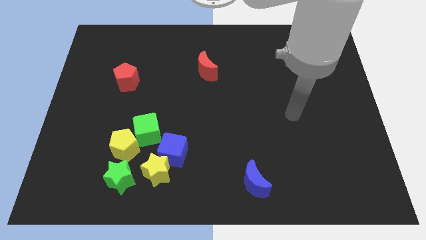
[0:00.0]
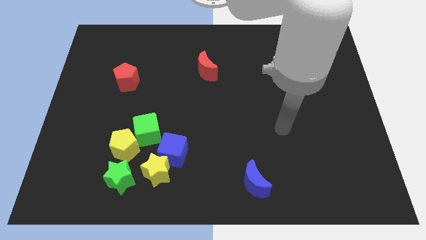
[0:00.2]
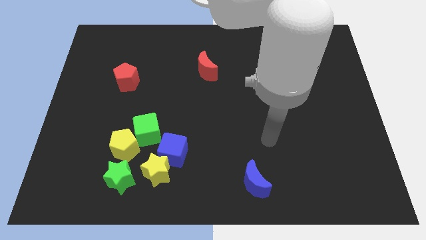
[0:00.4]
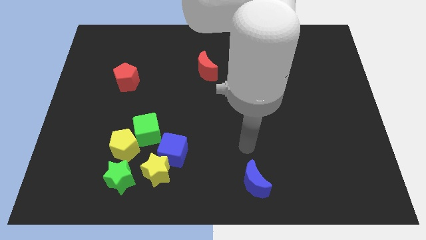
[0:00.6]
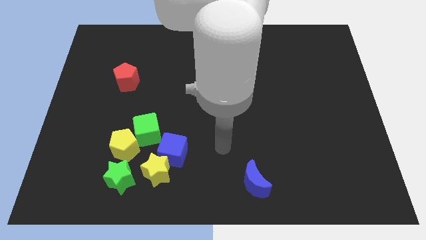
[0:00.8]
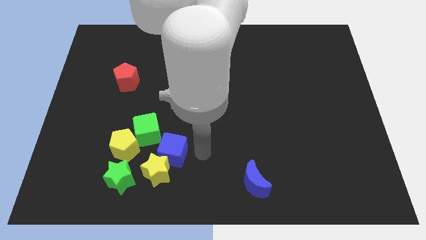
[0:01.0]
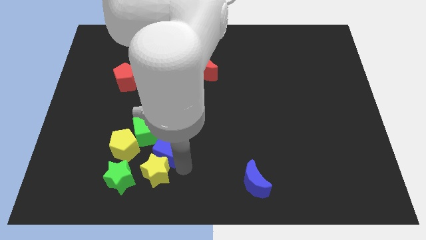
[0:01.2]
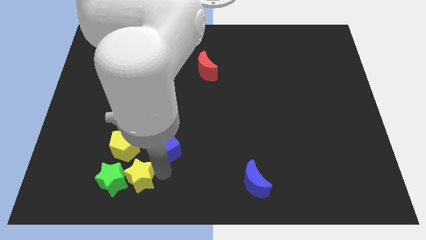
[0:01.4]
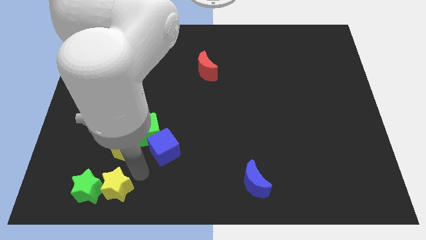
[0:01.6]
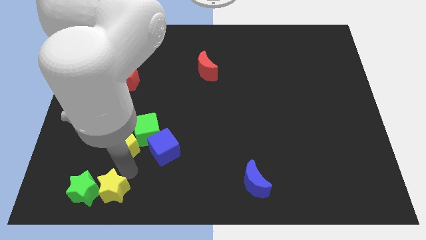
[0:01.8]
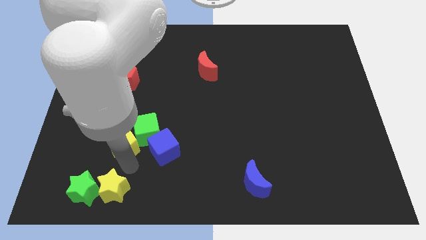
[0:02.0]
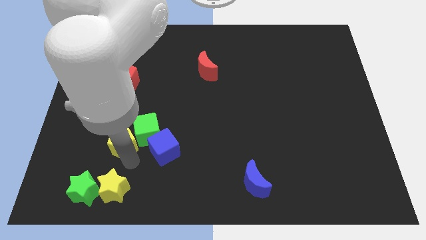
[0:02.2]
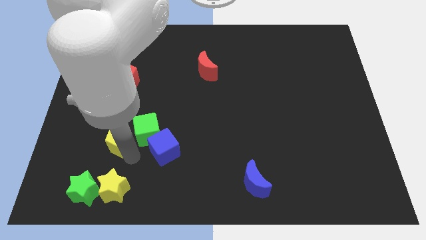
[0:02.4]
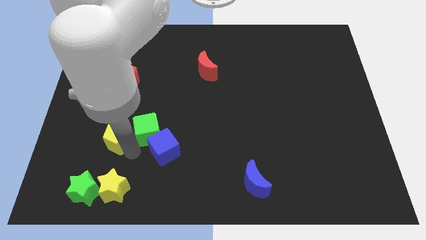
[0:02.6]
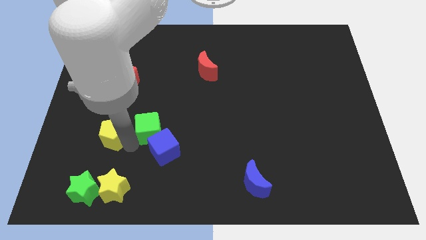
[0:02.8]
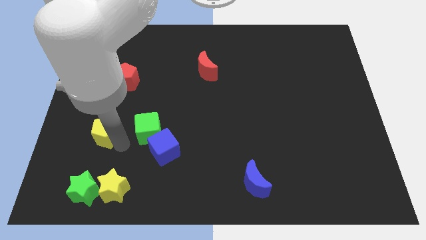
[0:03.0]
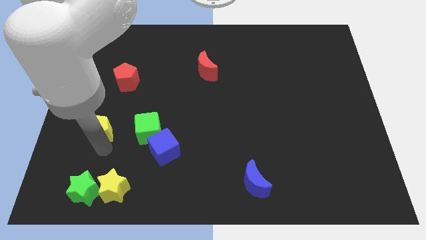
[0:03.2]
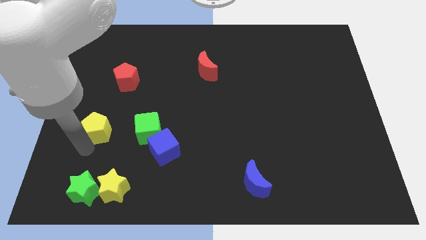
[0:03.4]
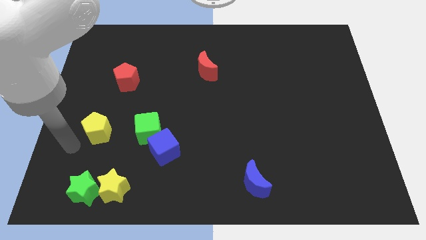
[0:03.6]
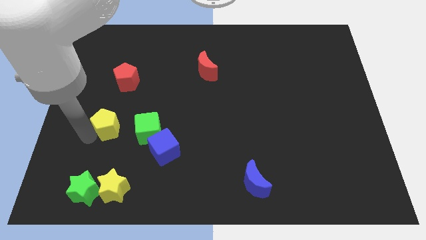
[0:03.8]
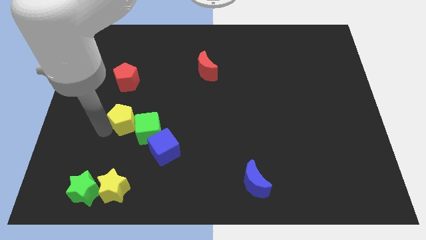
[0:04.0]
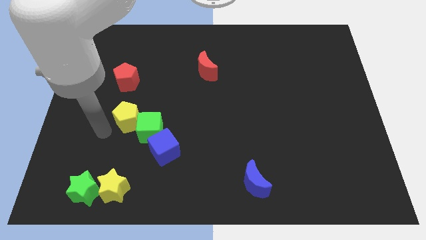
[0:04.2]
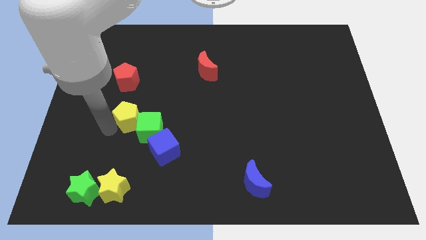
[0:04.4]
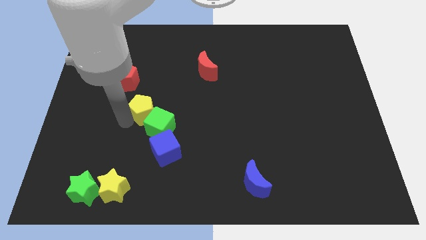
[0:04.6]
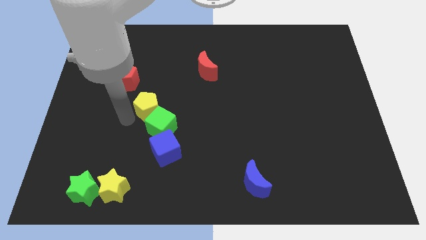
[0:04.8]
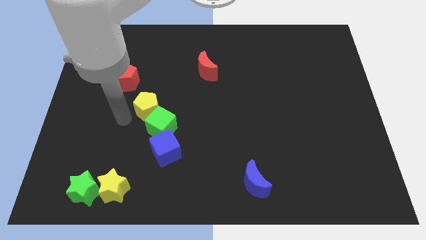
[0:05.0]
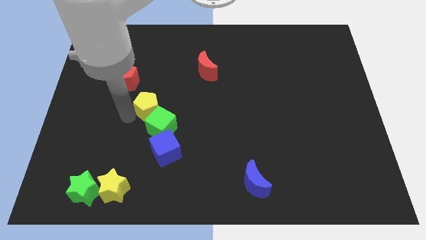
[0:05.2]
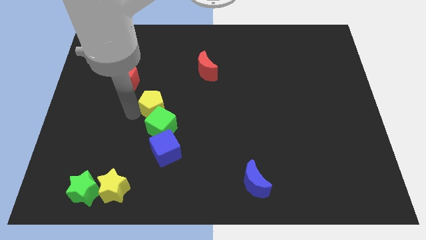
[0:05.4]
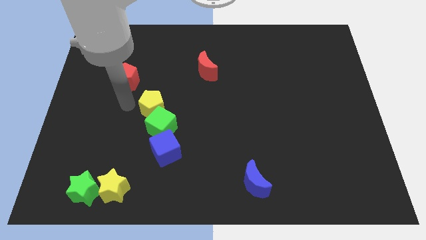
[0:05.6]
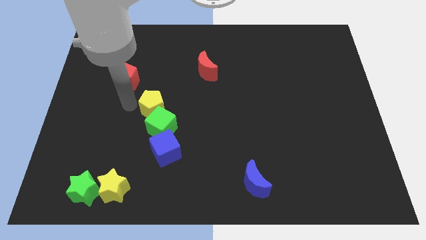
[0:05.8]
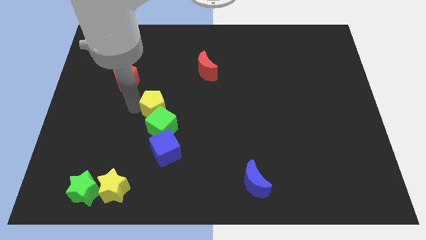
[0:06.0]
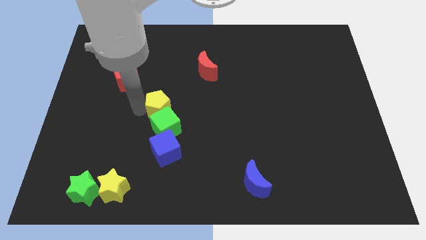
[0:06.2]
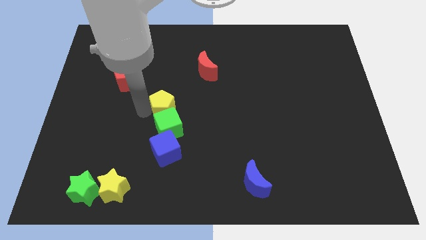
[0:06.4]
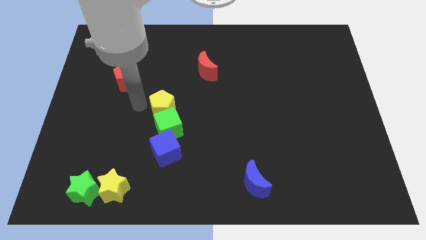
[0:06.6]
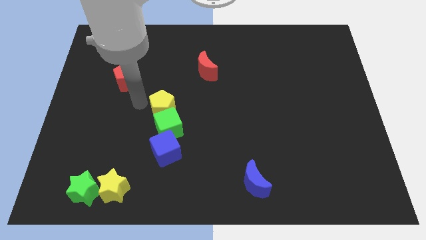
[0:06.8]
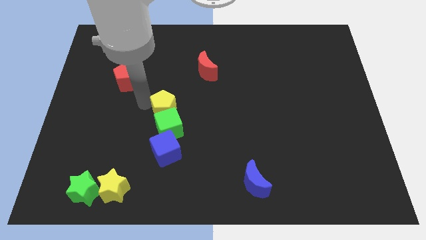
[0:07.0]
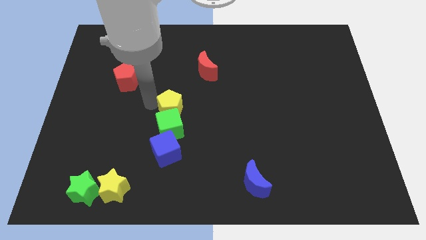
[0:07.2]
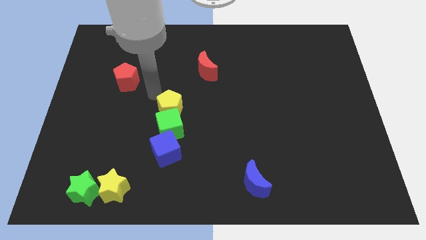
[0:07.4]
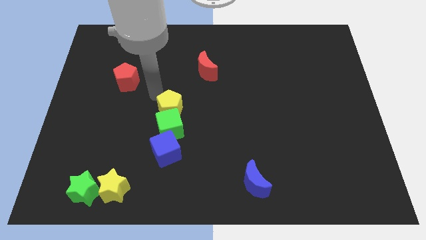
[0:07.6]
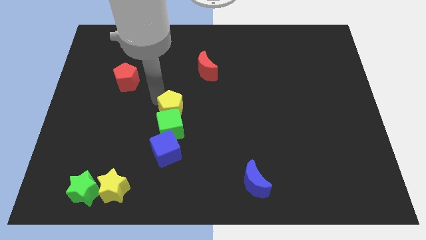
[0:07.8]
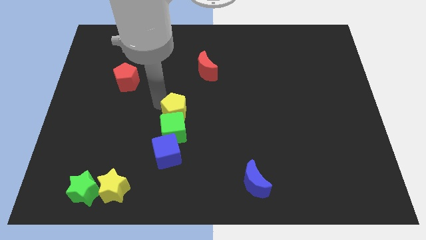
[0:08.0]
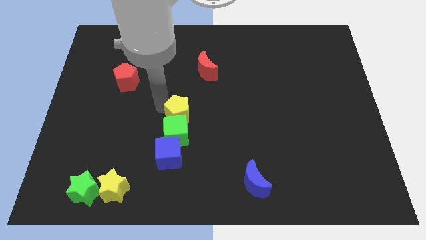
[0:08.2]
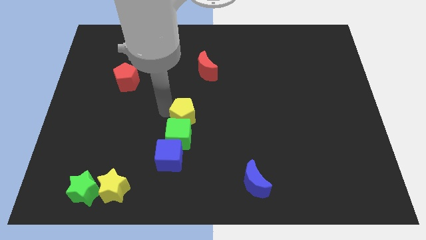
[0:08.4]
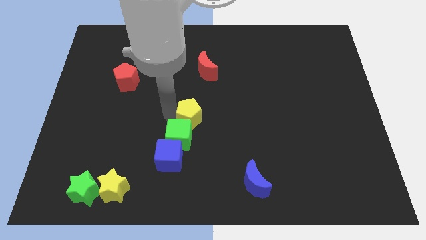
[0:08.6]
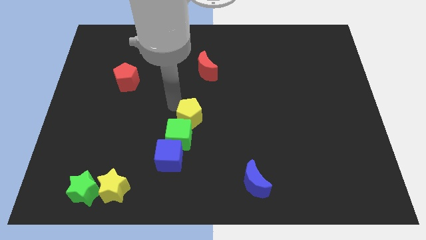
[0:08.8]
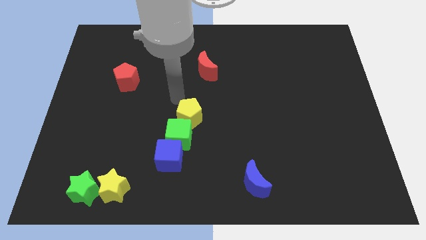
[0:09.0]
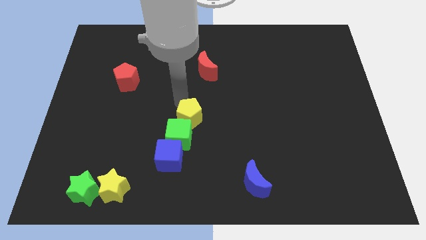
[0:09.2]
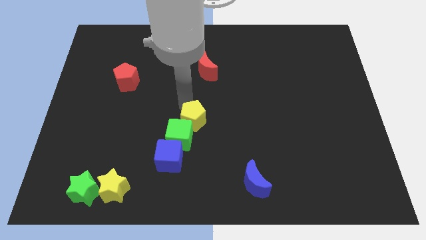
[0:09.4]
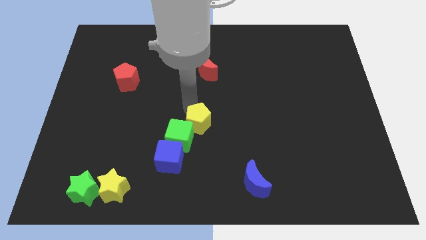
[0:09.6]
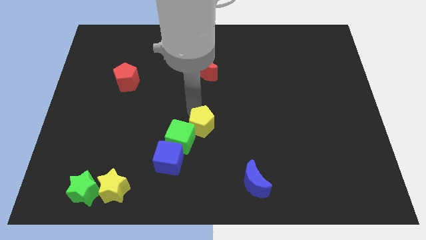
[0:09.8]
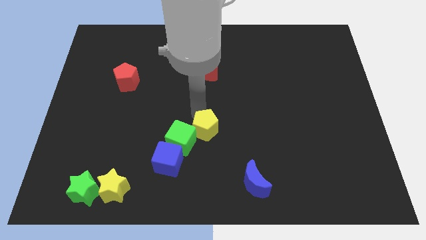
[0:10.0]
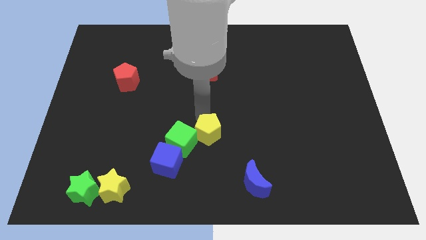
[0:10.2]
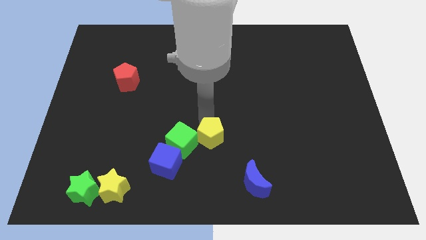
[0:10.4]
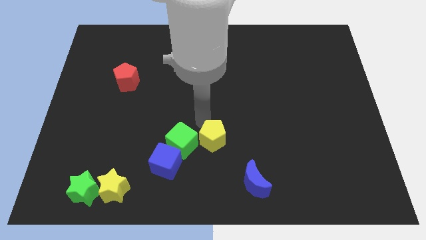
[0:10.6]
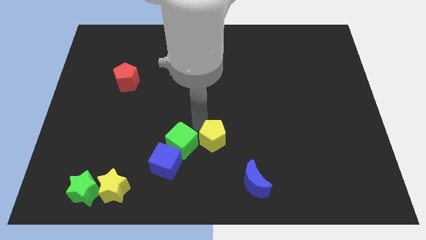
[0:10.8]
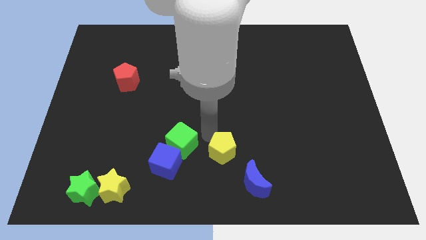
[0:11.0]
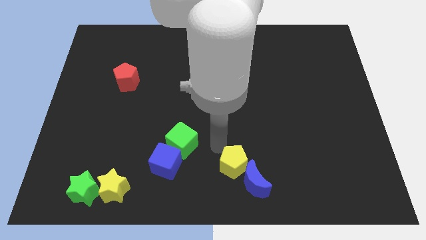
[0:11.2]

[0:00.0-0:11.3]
push the yellow pentagon next to the blue moon

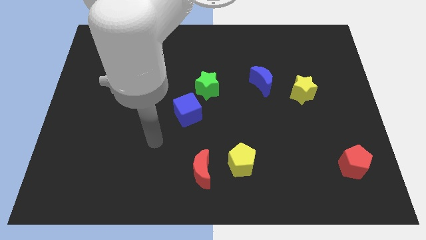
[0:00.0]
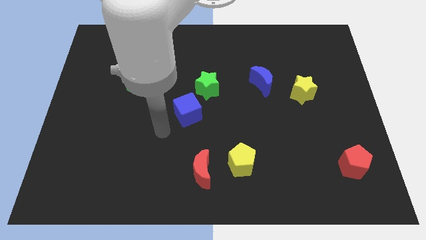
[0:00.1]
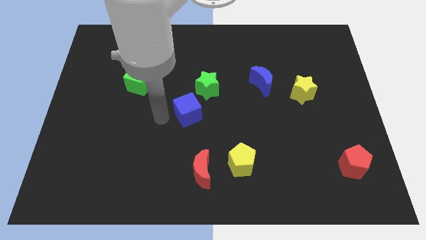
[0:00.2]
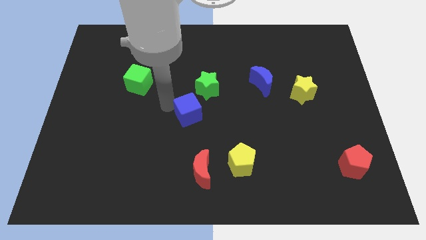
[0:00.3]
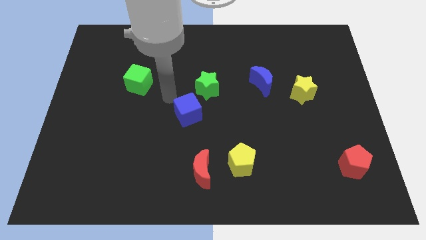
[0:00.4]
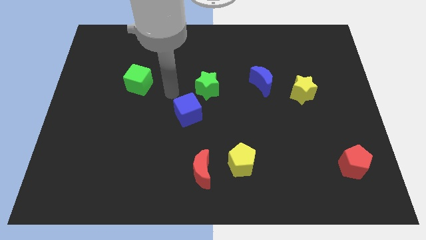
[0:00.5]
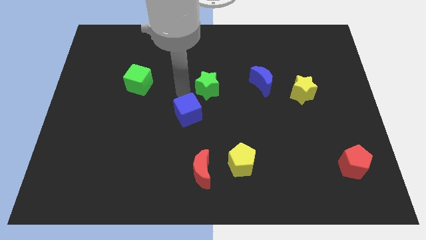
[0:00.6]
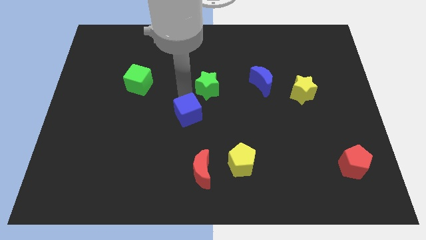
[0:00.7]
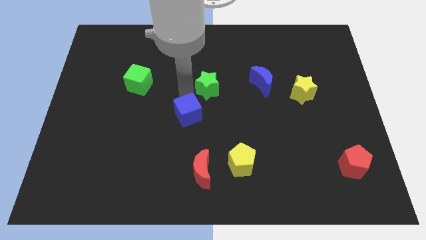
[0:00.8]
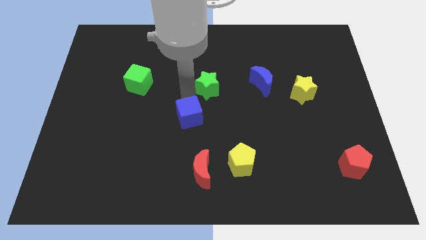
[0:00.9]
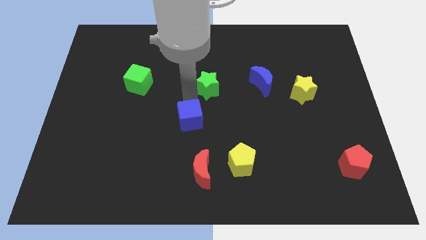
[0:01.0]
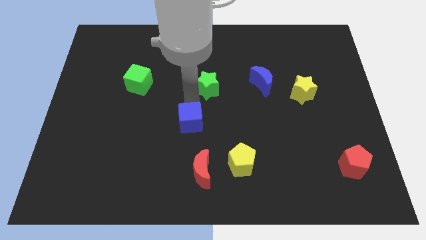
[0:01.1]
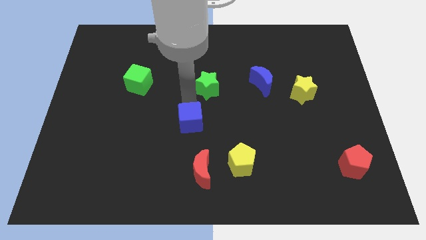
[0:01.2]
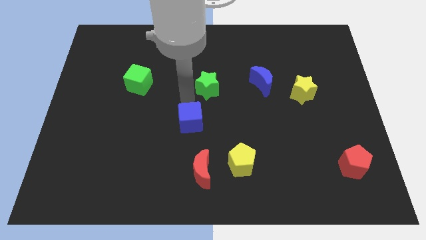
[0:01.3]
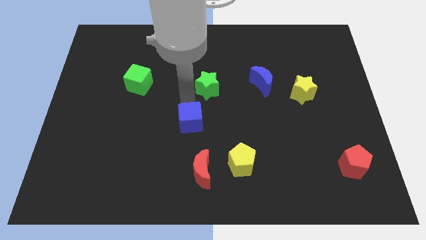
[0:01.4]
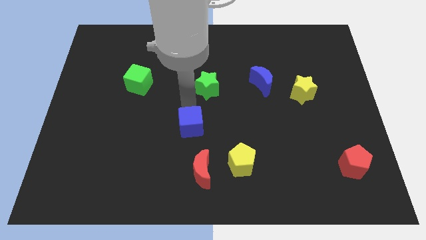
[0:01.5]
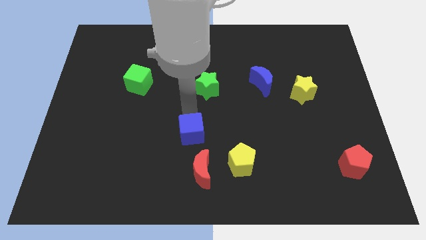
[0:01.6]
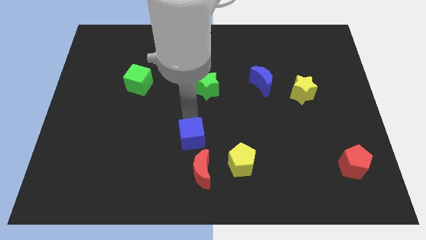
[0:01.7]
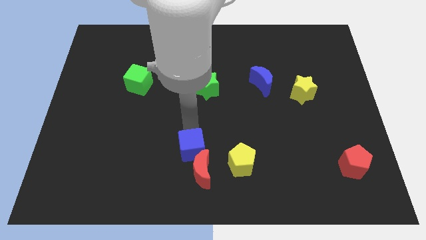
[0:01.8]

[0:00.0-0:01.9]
put the blue cube next to the red moon
